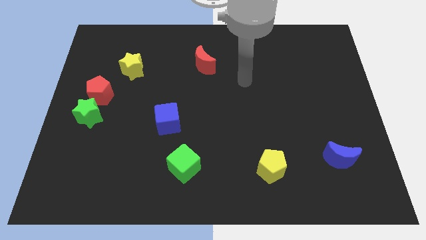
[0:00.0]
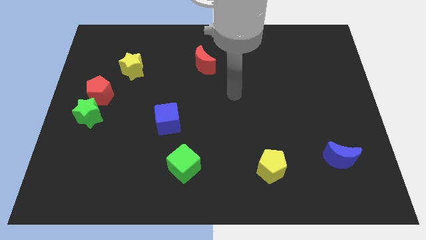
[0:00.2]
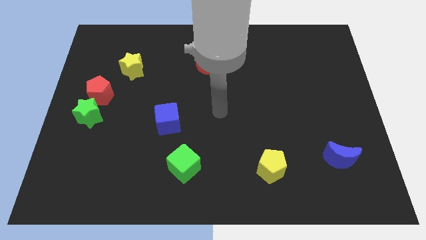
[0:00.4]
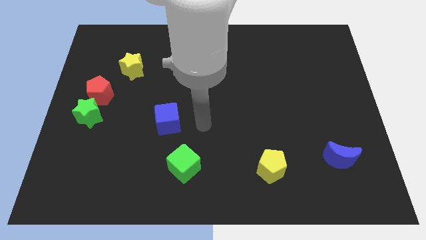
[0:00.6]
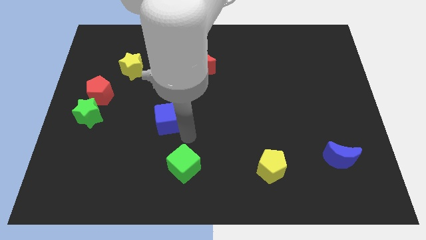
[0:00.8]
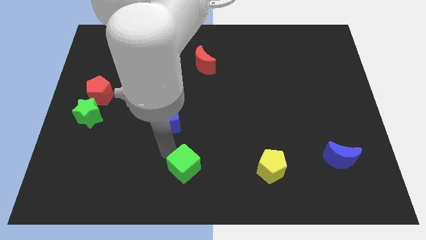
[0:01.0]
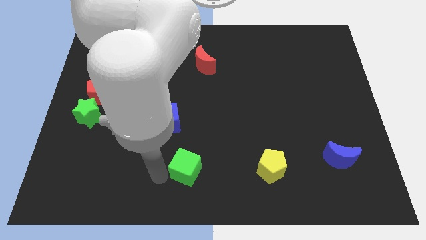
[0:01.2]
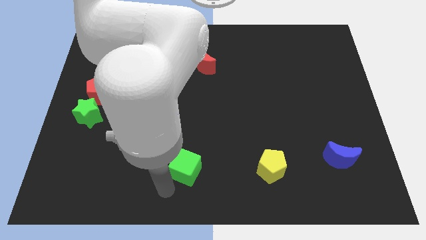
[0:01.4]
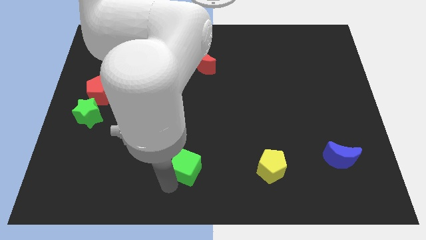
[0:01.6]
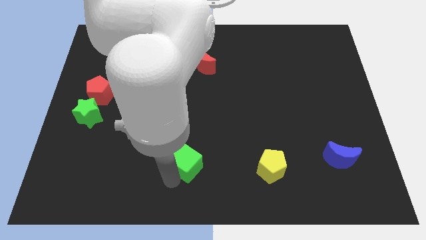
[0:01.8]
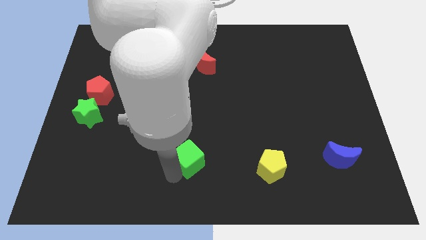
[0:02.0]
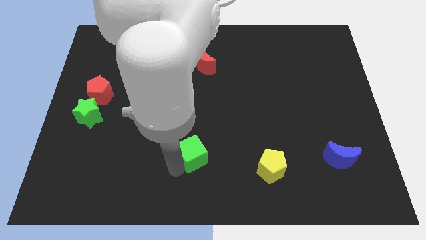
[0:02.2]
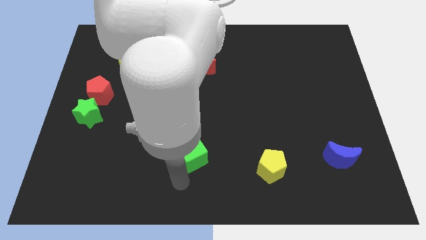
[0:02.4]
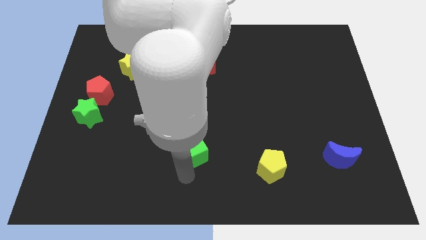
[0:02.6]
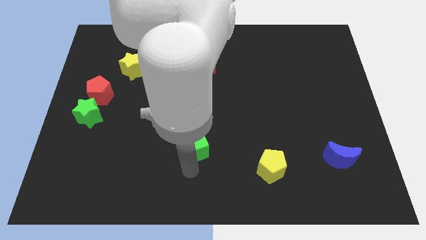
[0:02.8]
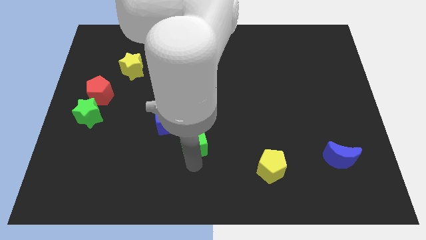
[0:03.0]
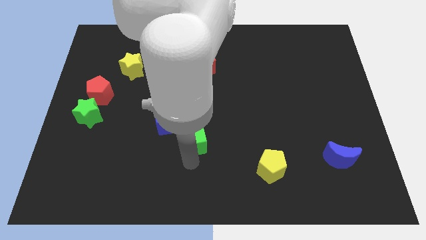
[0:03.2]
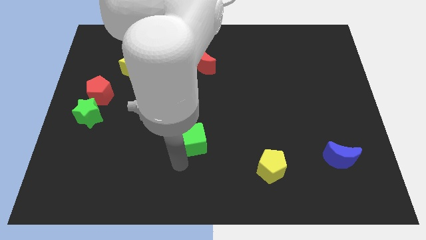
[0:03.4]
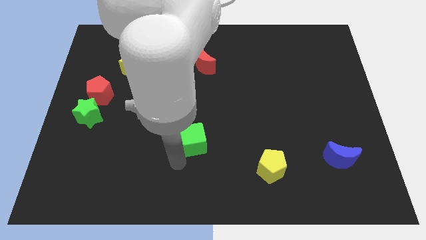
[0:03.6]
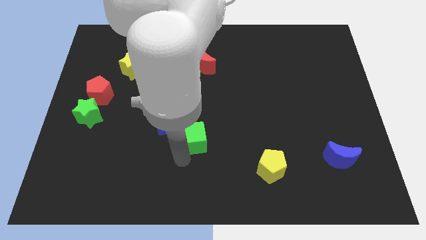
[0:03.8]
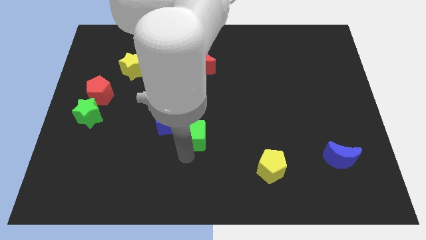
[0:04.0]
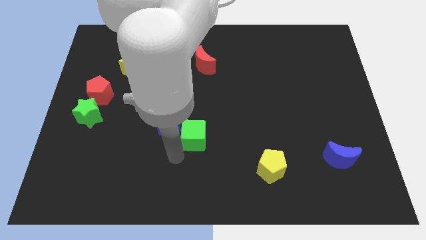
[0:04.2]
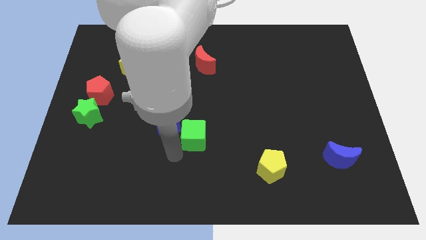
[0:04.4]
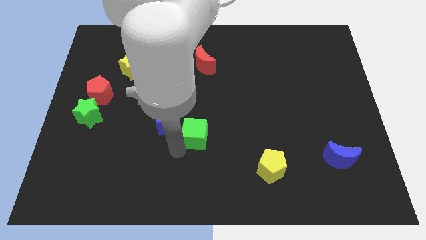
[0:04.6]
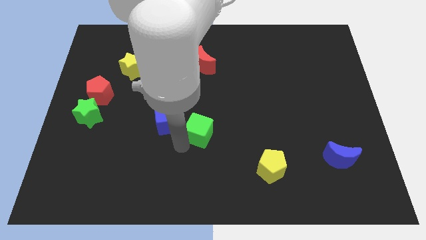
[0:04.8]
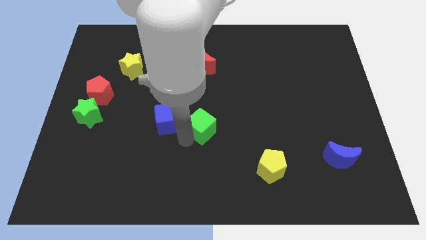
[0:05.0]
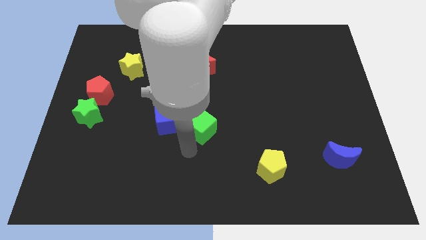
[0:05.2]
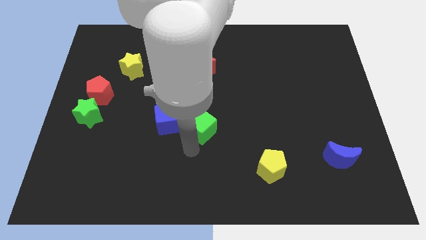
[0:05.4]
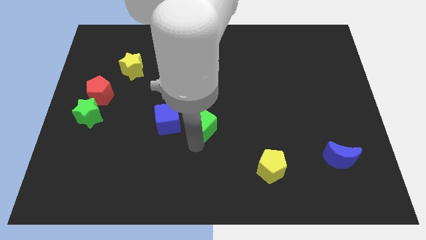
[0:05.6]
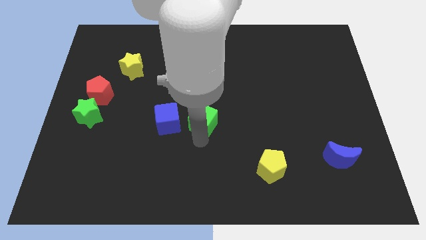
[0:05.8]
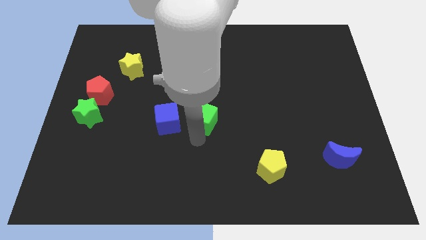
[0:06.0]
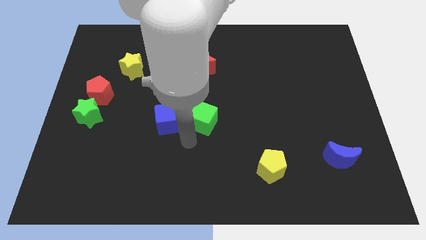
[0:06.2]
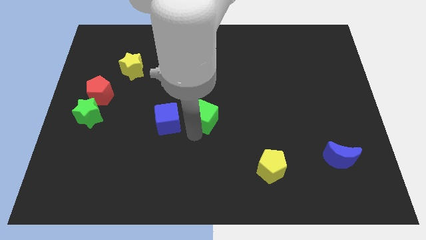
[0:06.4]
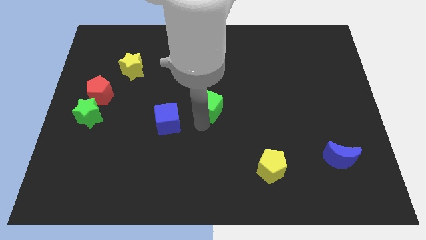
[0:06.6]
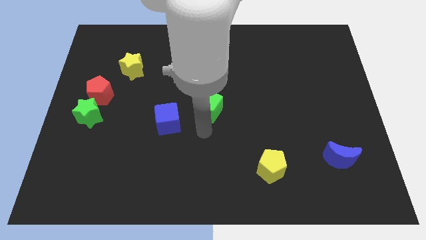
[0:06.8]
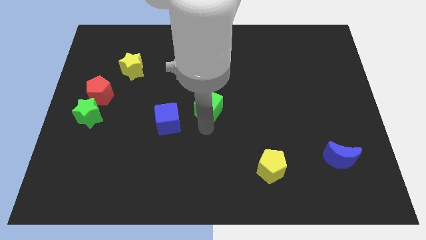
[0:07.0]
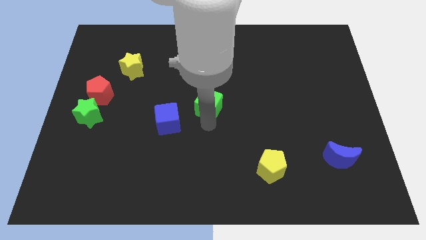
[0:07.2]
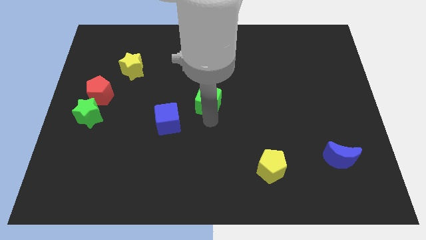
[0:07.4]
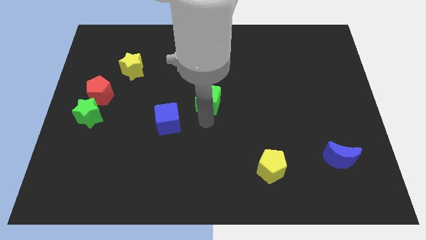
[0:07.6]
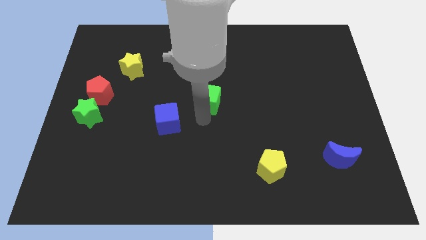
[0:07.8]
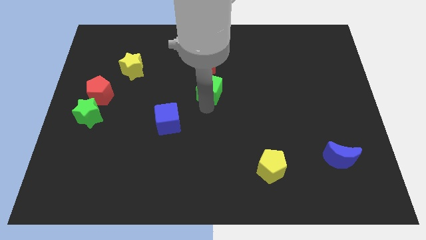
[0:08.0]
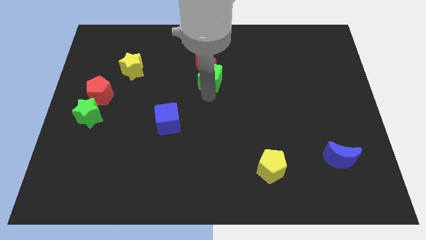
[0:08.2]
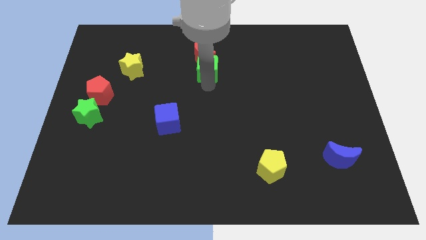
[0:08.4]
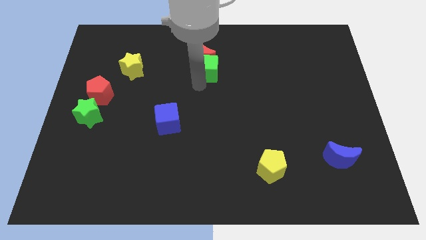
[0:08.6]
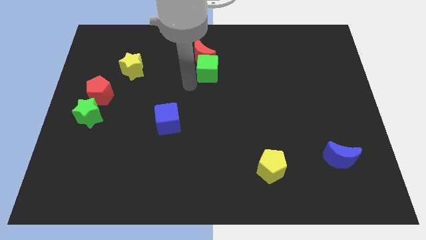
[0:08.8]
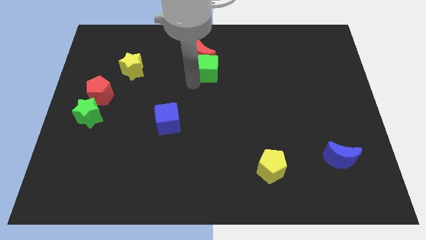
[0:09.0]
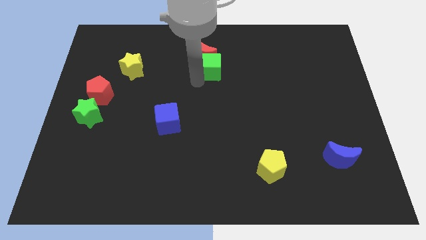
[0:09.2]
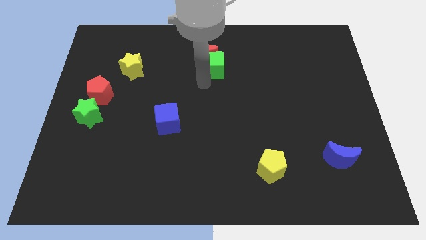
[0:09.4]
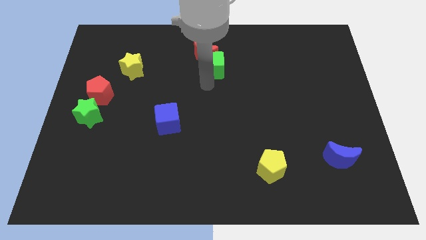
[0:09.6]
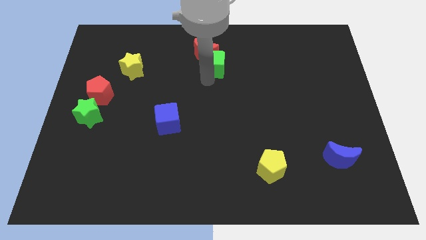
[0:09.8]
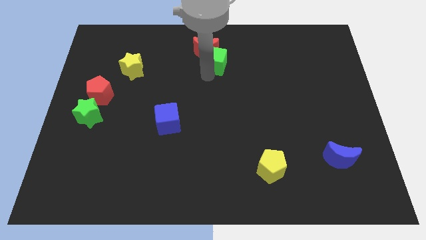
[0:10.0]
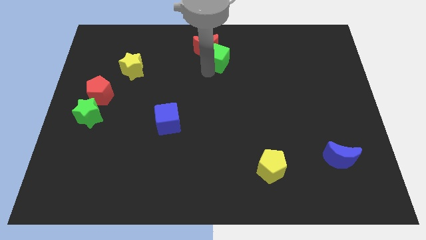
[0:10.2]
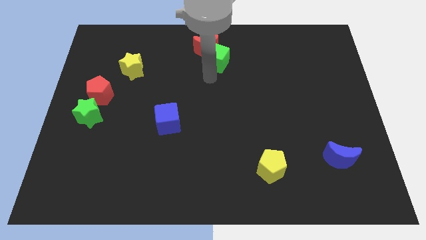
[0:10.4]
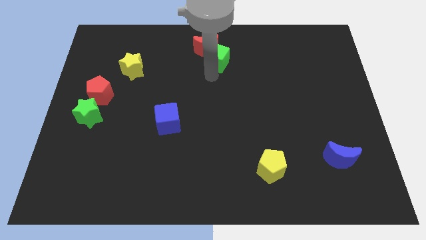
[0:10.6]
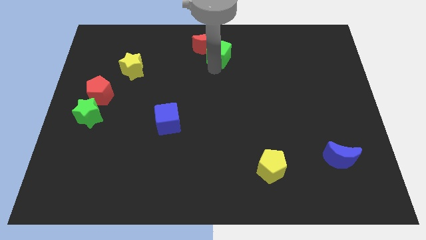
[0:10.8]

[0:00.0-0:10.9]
push the green cube to the top

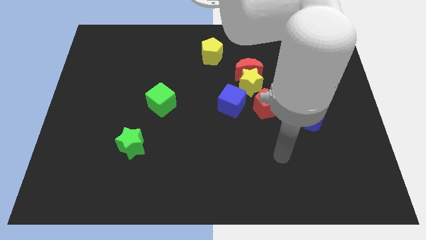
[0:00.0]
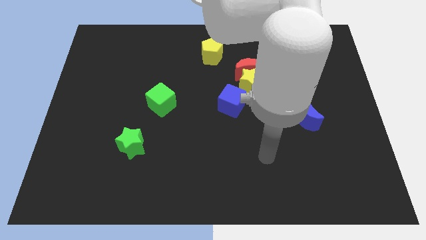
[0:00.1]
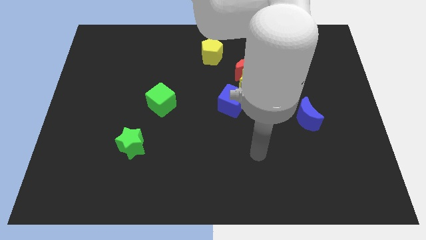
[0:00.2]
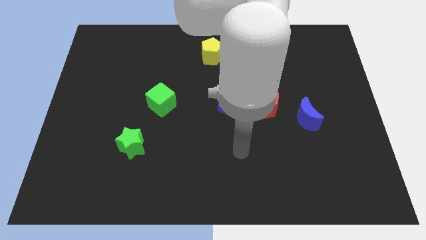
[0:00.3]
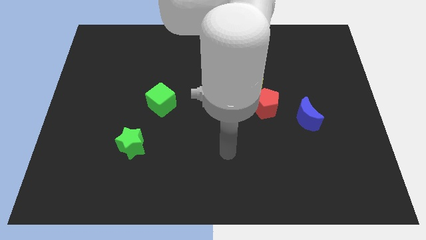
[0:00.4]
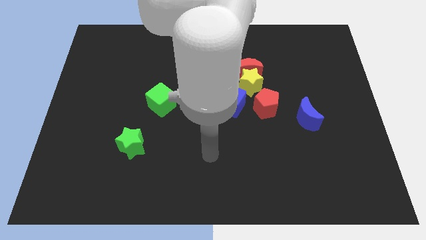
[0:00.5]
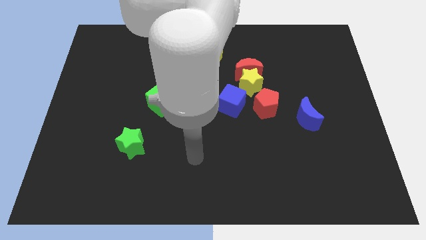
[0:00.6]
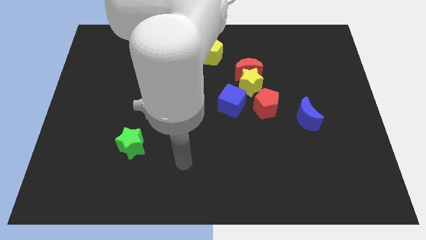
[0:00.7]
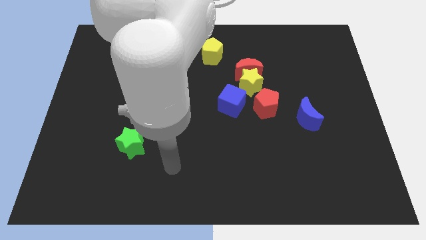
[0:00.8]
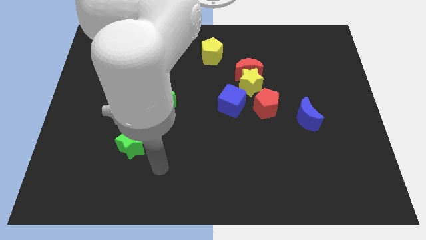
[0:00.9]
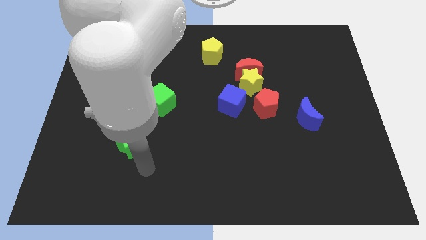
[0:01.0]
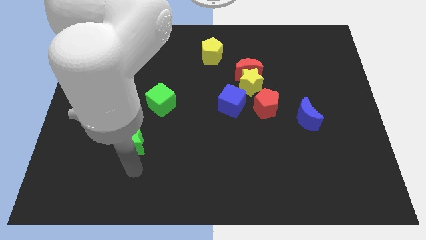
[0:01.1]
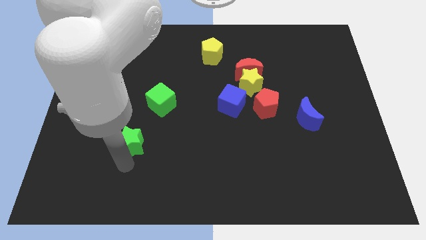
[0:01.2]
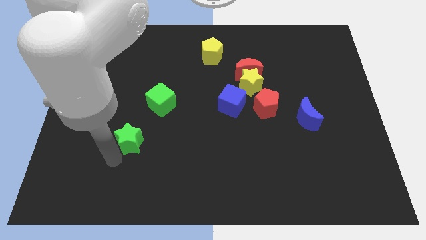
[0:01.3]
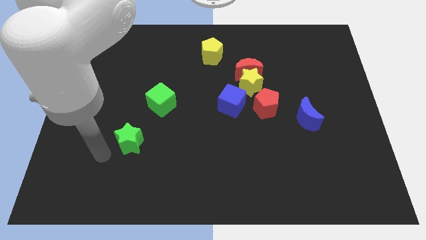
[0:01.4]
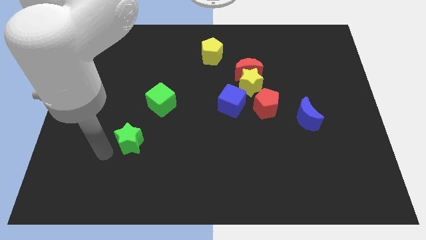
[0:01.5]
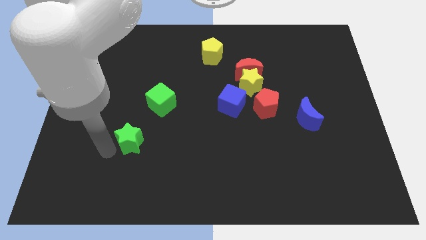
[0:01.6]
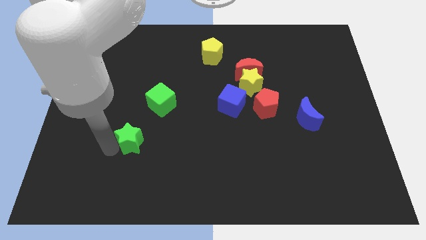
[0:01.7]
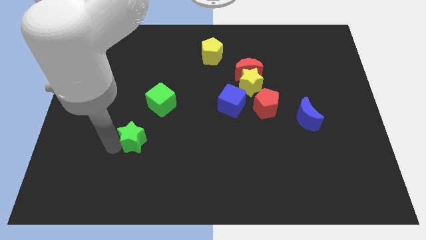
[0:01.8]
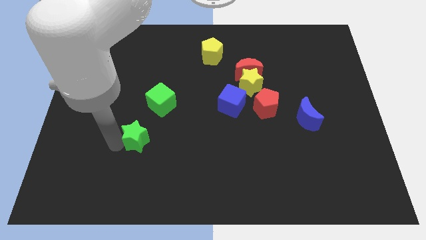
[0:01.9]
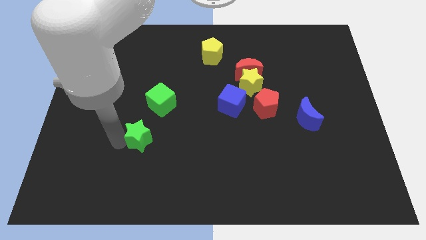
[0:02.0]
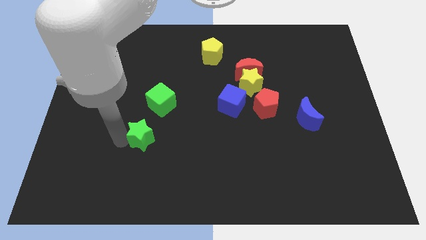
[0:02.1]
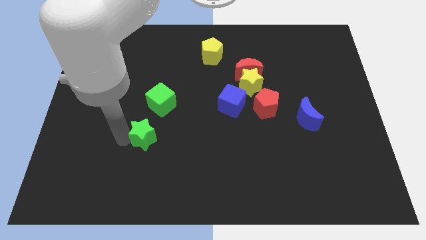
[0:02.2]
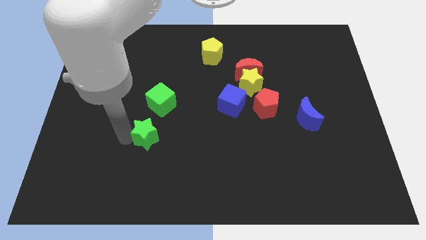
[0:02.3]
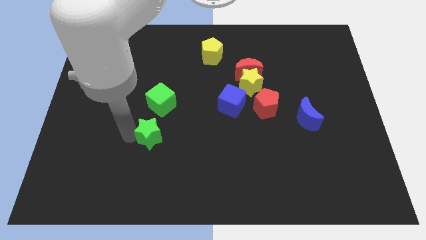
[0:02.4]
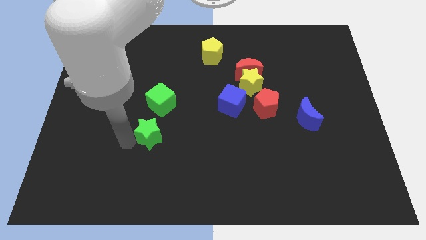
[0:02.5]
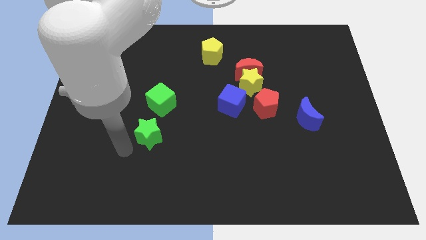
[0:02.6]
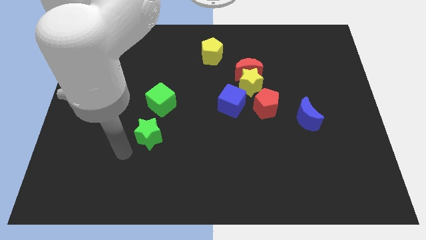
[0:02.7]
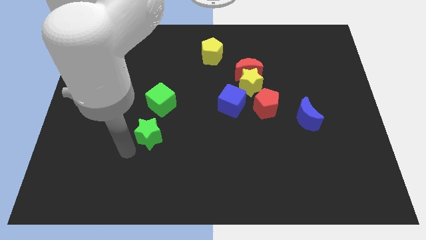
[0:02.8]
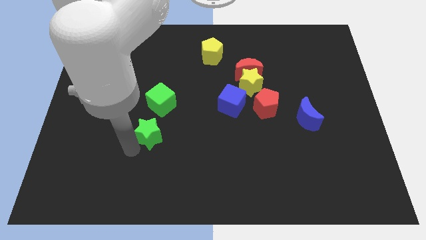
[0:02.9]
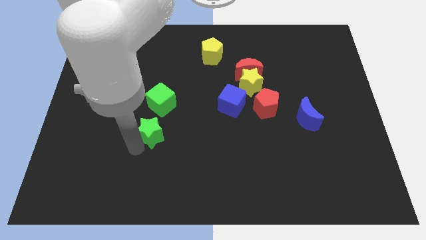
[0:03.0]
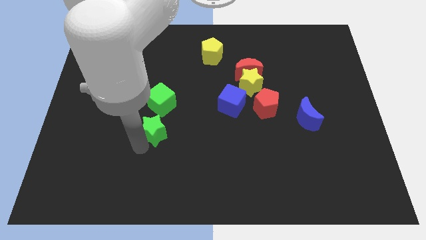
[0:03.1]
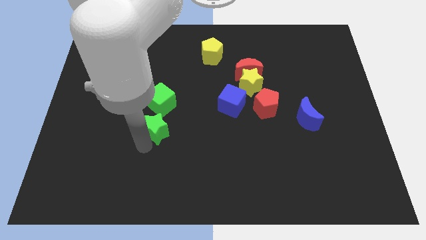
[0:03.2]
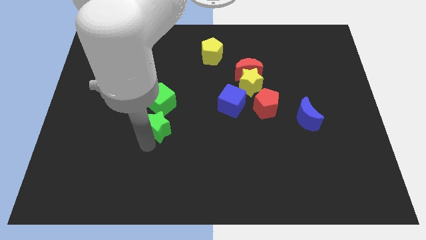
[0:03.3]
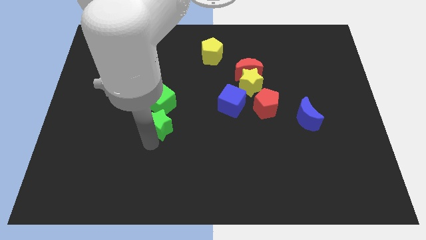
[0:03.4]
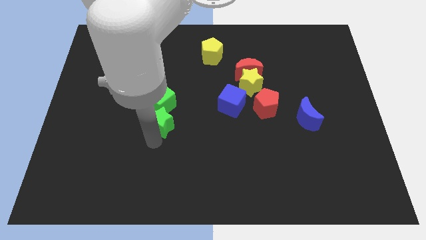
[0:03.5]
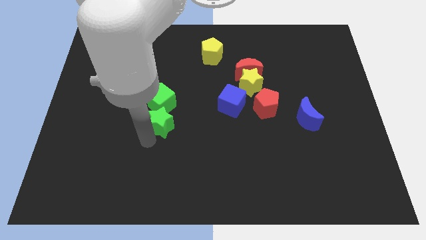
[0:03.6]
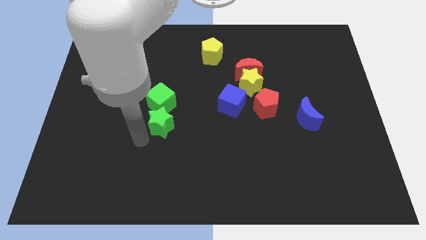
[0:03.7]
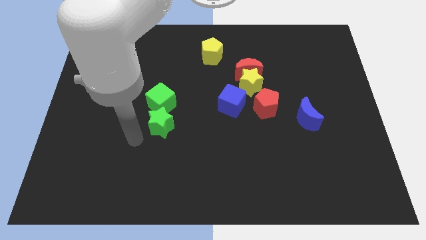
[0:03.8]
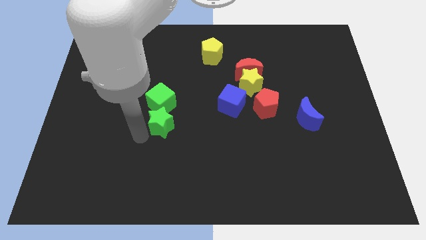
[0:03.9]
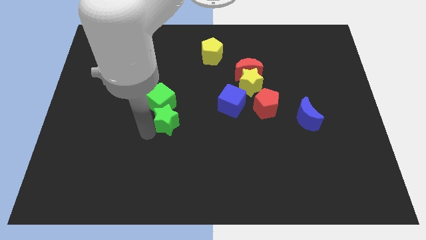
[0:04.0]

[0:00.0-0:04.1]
push the green star to the center of the board
